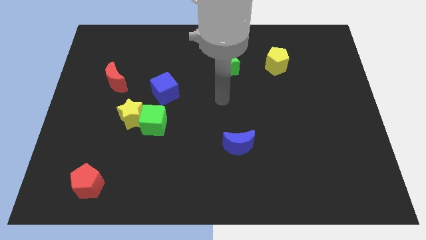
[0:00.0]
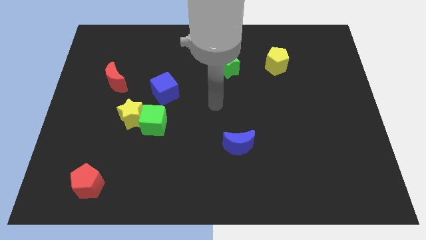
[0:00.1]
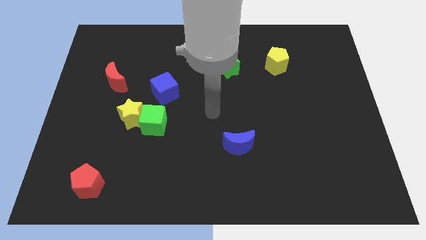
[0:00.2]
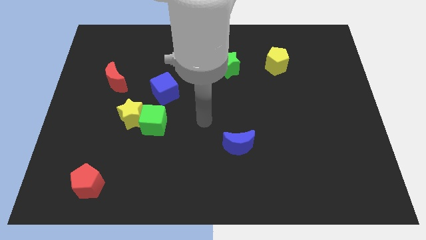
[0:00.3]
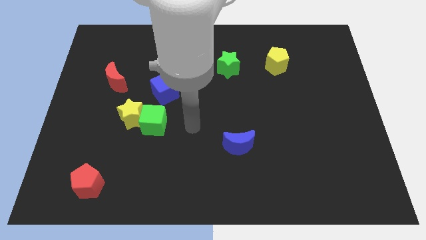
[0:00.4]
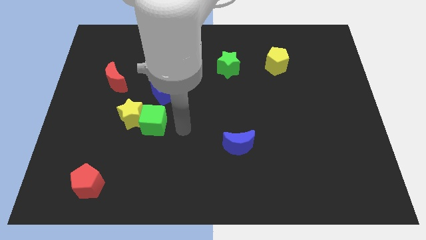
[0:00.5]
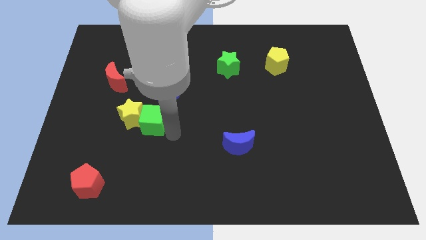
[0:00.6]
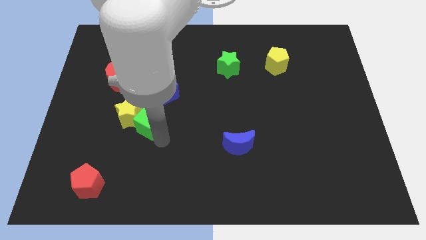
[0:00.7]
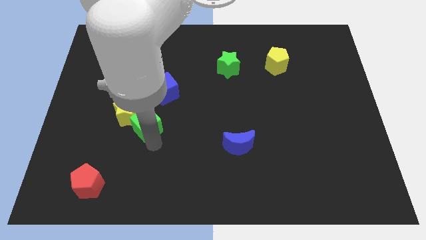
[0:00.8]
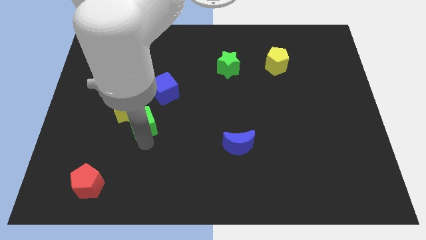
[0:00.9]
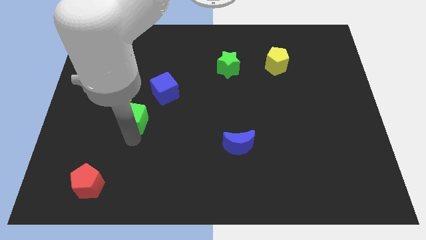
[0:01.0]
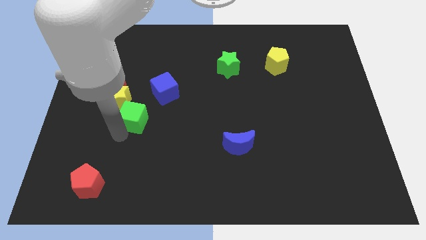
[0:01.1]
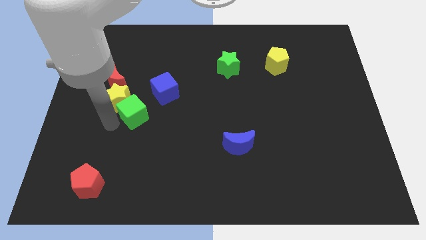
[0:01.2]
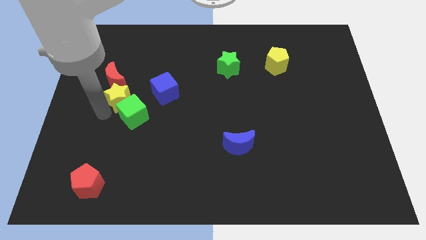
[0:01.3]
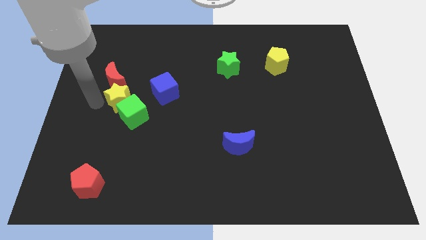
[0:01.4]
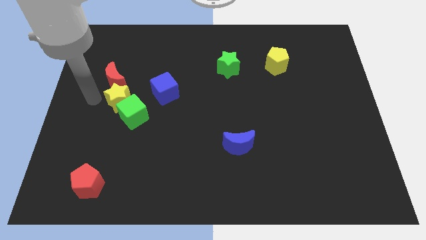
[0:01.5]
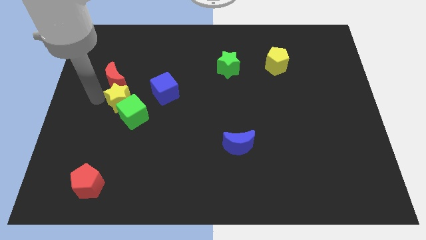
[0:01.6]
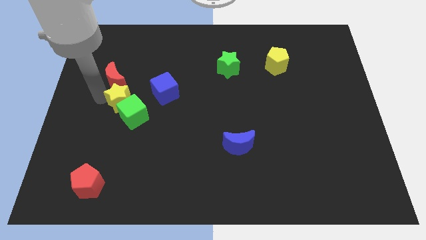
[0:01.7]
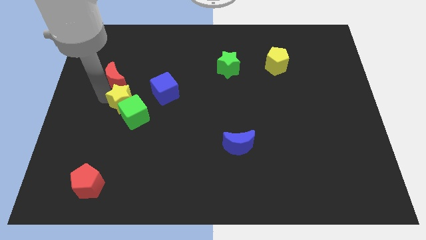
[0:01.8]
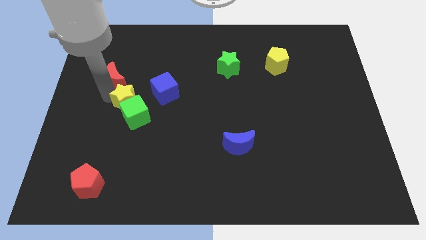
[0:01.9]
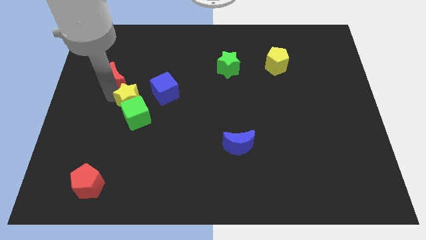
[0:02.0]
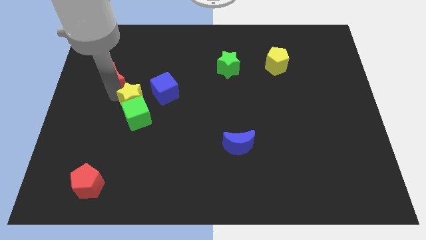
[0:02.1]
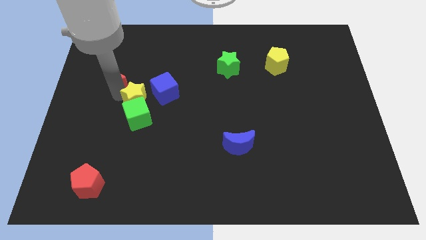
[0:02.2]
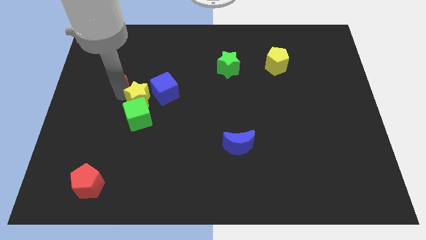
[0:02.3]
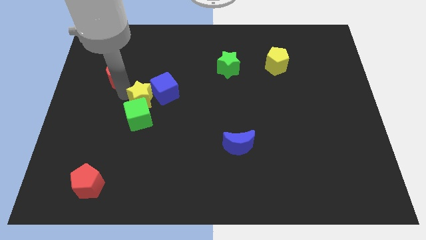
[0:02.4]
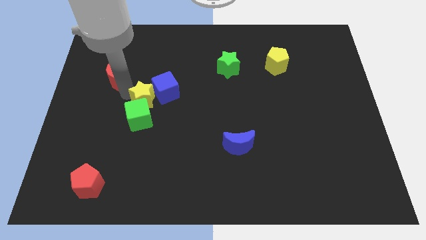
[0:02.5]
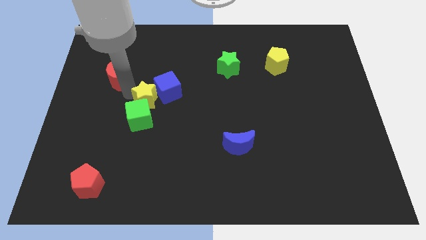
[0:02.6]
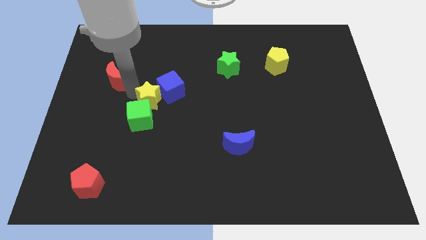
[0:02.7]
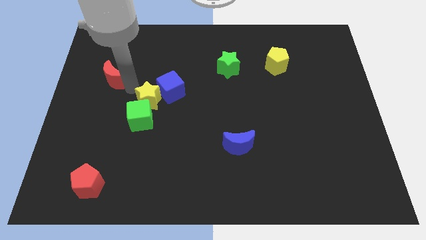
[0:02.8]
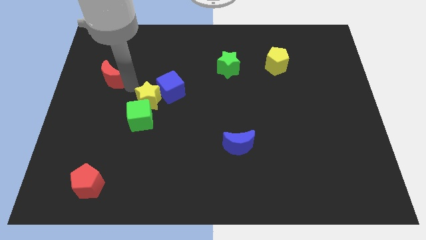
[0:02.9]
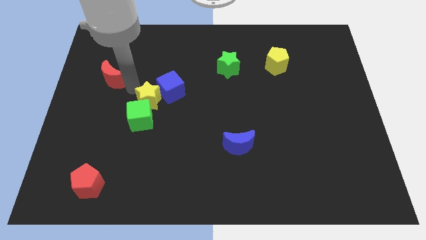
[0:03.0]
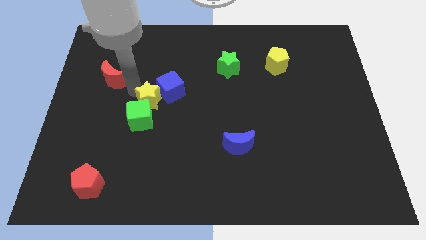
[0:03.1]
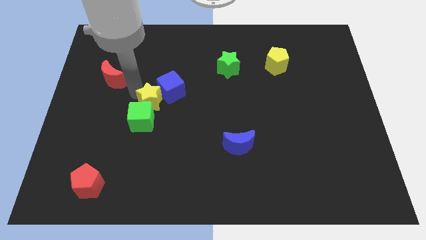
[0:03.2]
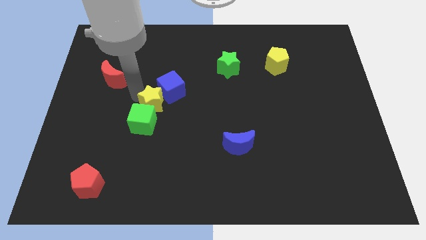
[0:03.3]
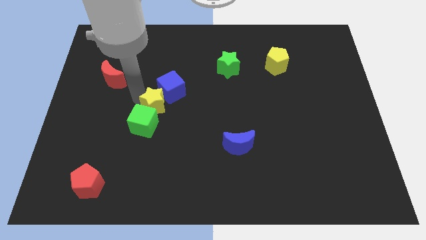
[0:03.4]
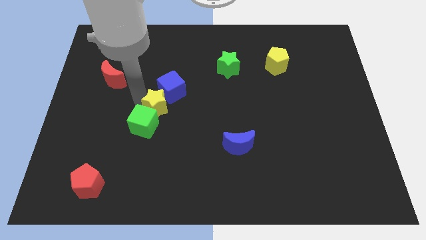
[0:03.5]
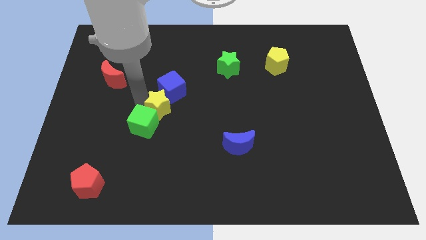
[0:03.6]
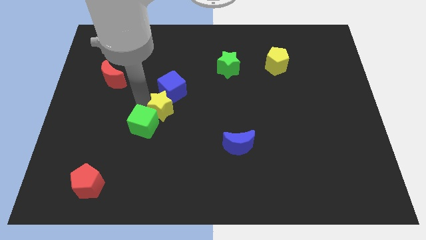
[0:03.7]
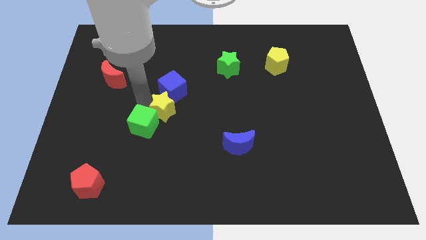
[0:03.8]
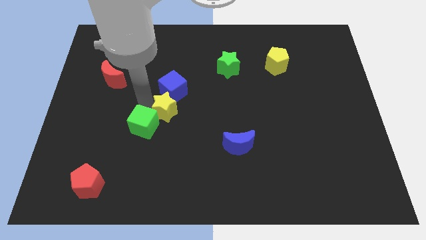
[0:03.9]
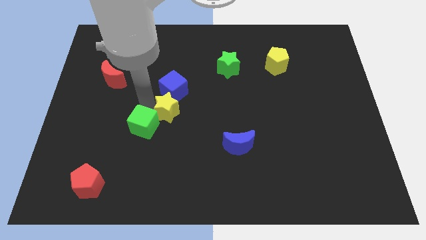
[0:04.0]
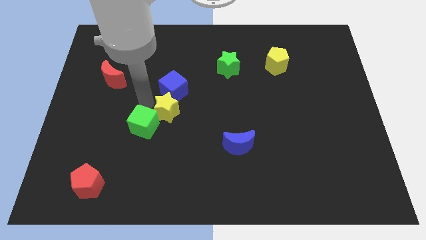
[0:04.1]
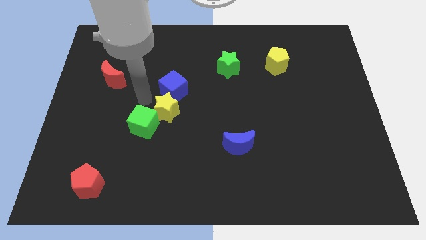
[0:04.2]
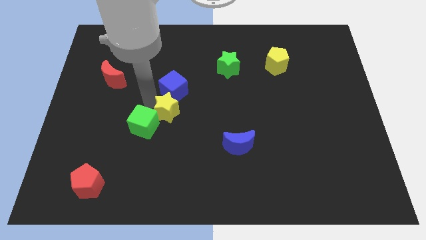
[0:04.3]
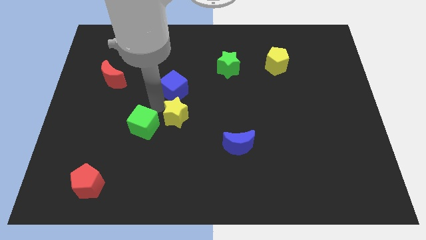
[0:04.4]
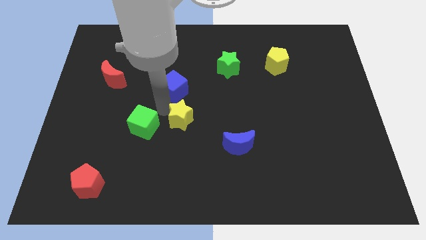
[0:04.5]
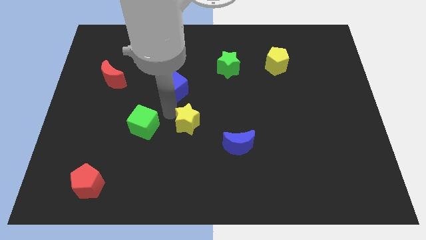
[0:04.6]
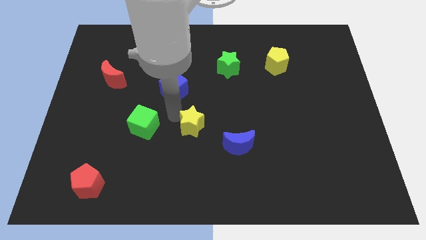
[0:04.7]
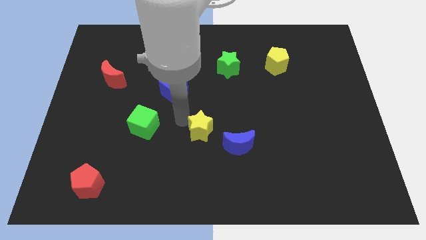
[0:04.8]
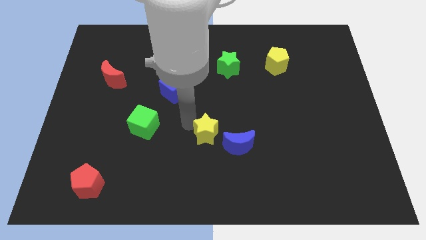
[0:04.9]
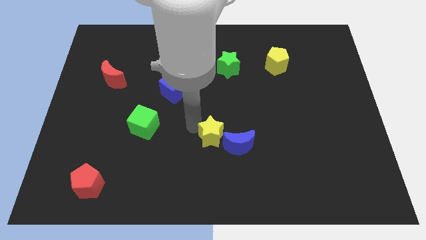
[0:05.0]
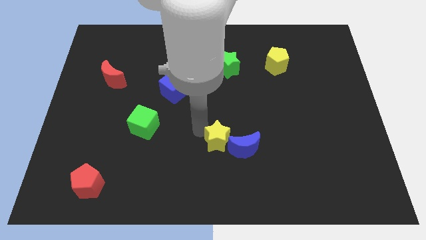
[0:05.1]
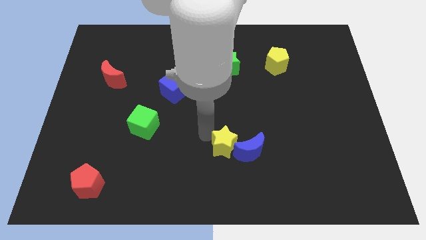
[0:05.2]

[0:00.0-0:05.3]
put the yellow star next to the blue moon

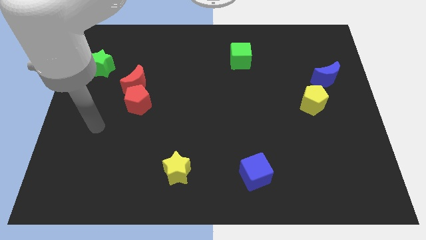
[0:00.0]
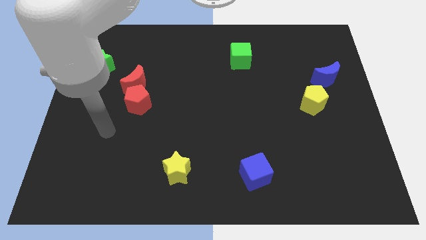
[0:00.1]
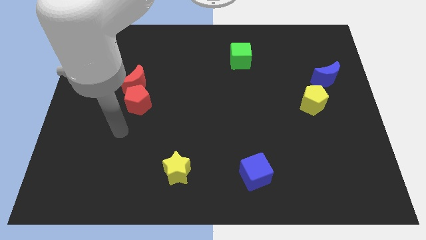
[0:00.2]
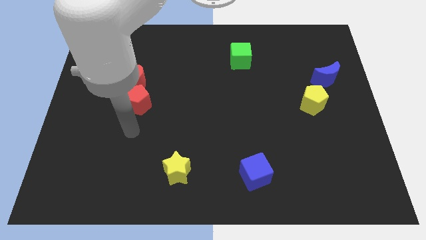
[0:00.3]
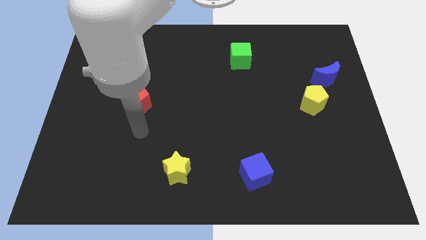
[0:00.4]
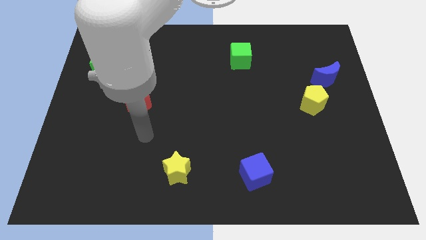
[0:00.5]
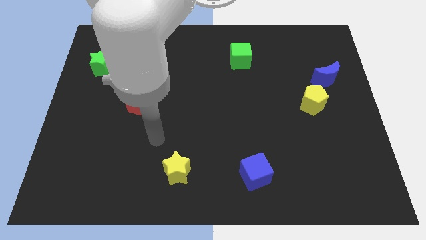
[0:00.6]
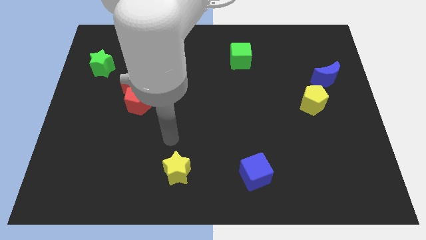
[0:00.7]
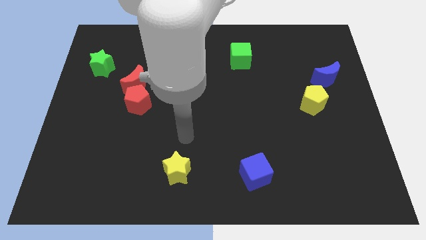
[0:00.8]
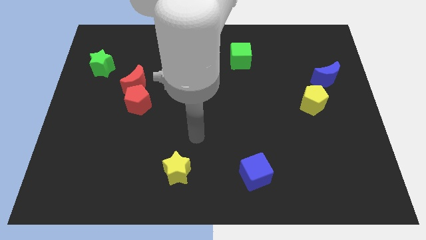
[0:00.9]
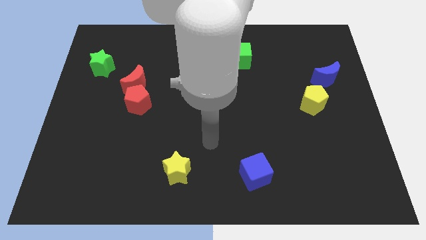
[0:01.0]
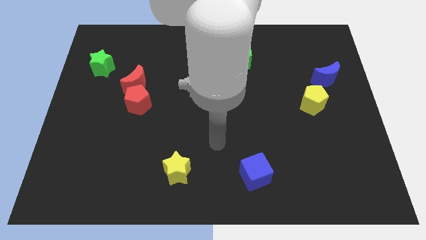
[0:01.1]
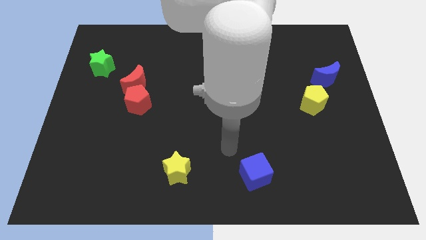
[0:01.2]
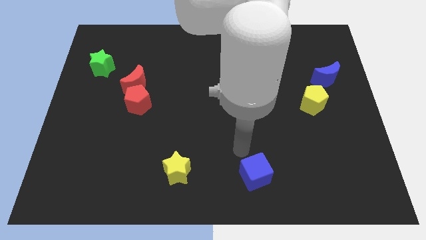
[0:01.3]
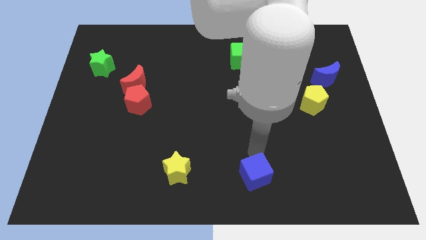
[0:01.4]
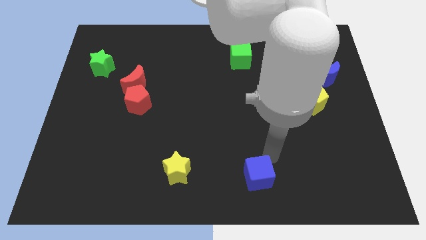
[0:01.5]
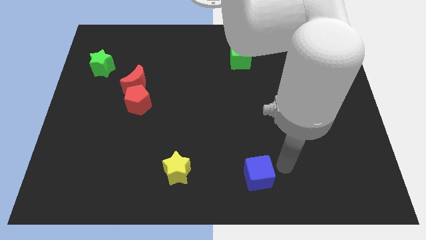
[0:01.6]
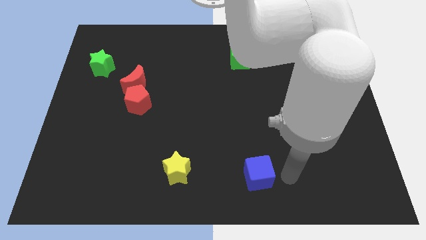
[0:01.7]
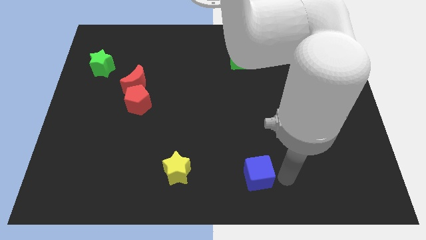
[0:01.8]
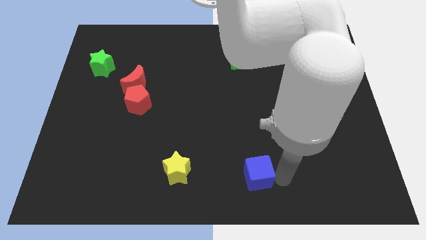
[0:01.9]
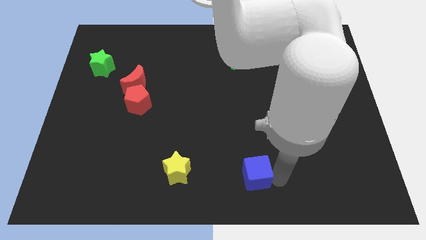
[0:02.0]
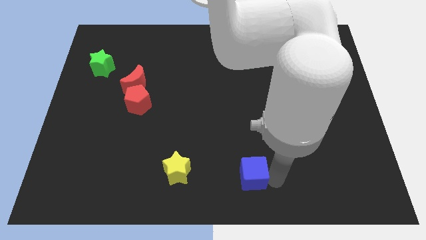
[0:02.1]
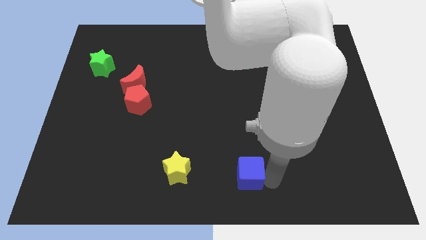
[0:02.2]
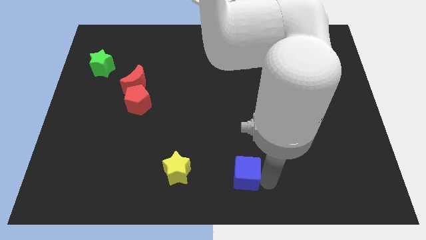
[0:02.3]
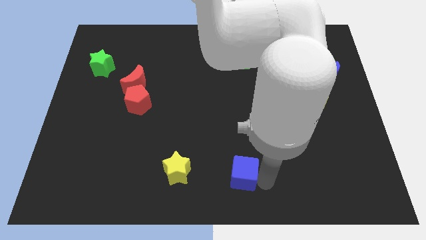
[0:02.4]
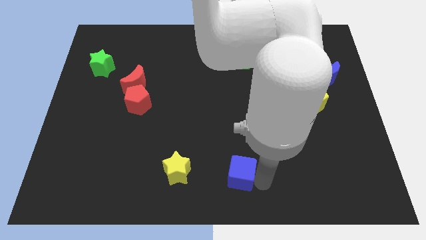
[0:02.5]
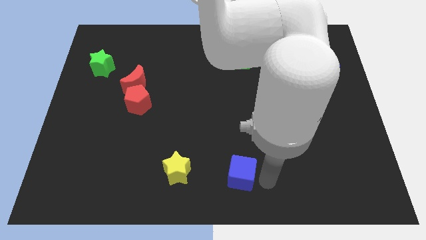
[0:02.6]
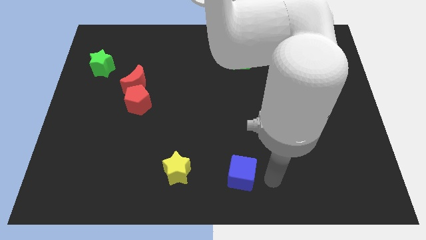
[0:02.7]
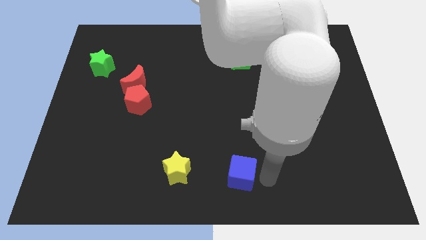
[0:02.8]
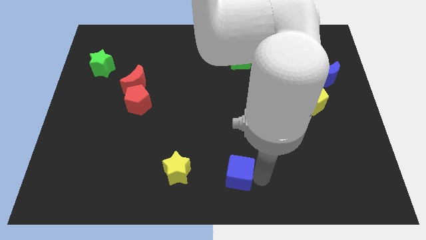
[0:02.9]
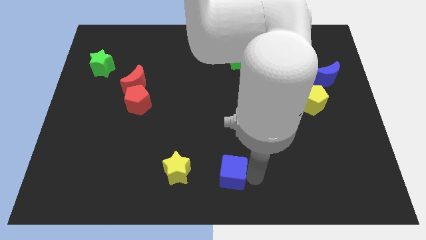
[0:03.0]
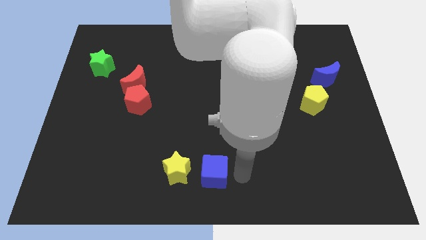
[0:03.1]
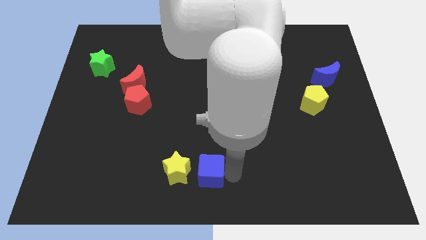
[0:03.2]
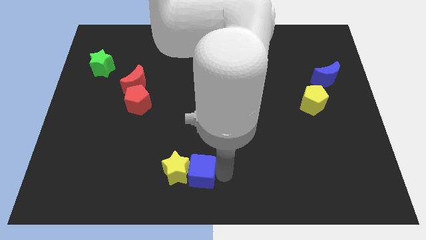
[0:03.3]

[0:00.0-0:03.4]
move the blue cube close to the yellow star
